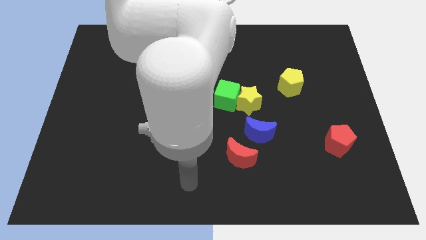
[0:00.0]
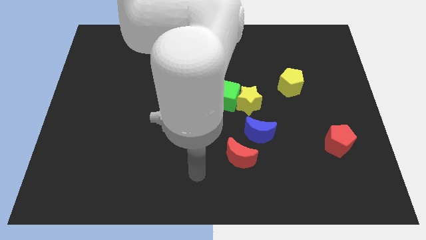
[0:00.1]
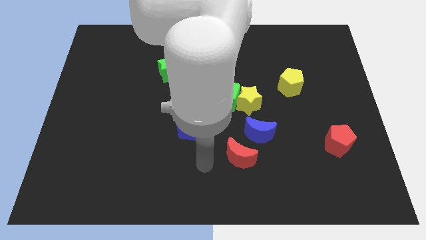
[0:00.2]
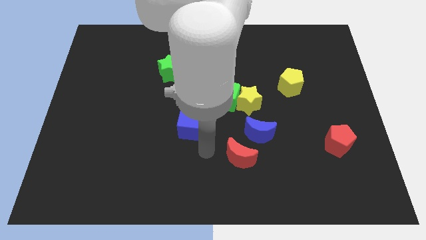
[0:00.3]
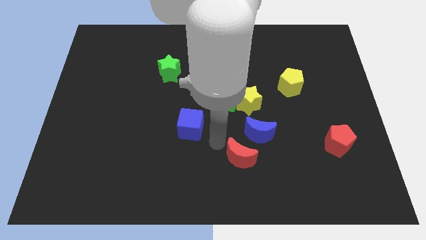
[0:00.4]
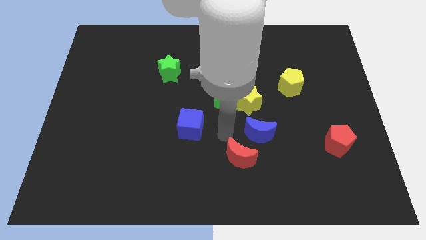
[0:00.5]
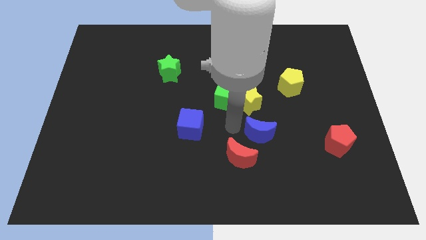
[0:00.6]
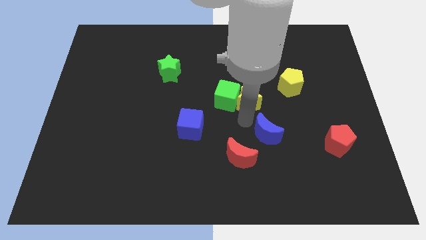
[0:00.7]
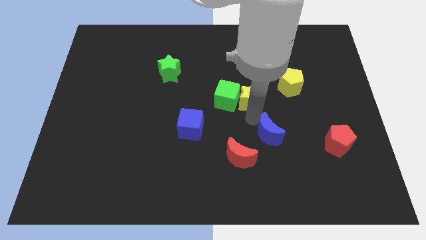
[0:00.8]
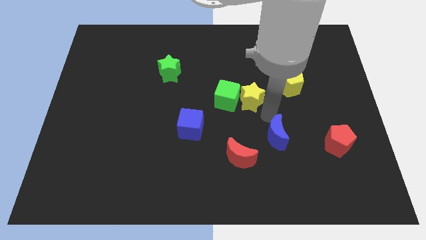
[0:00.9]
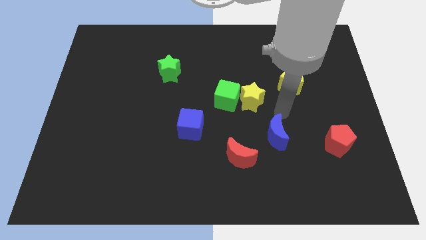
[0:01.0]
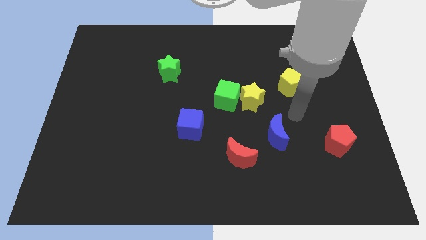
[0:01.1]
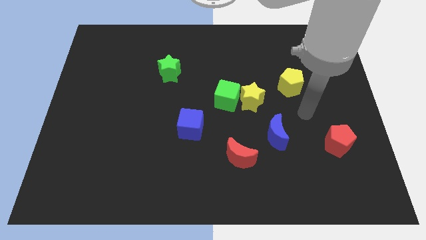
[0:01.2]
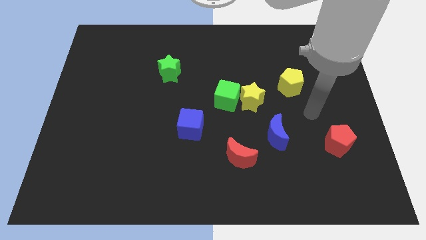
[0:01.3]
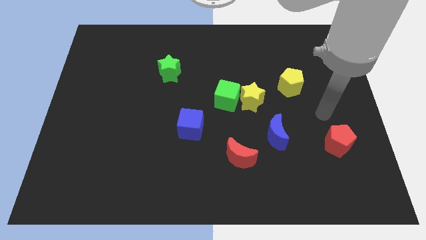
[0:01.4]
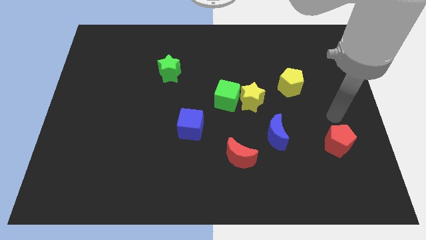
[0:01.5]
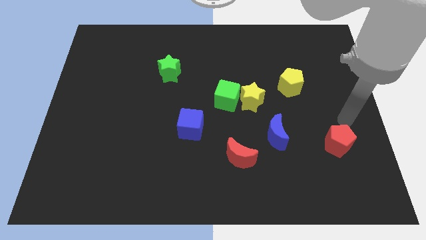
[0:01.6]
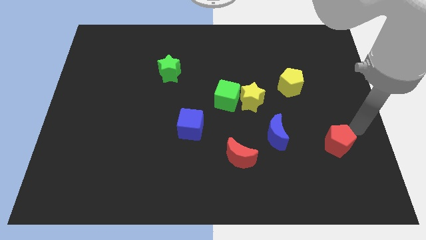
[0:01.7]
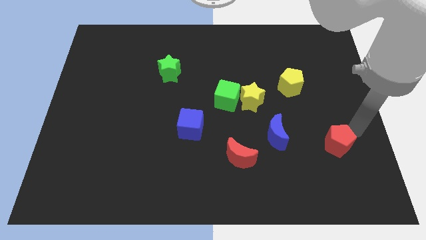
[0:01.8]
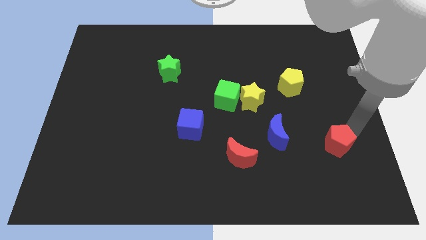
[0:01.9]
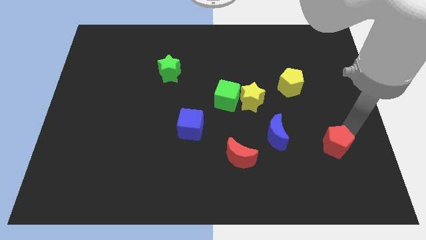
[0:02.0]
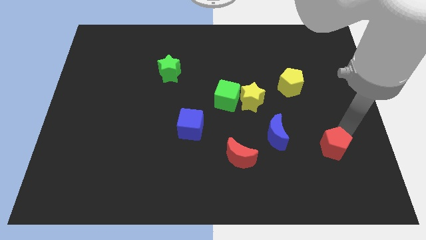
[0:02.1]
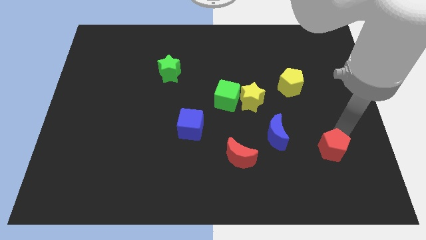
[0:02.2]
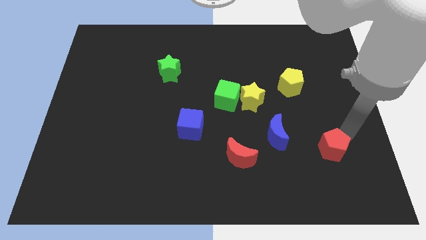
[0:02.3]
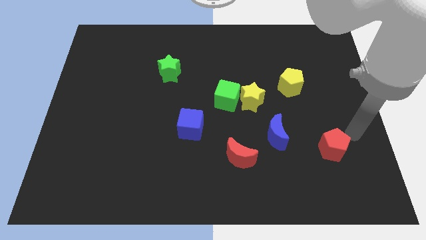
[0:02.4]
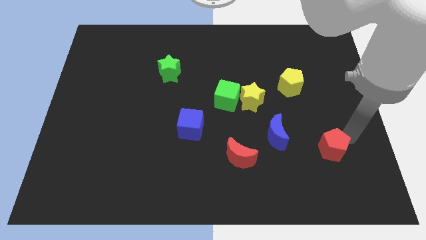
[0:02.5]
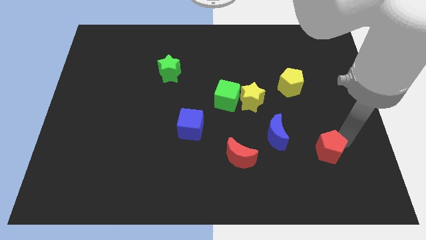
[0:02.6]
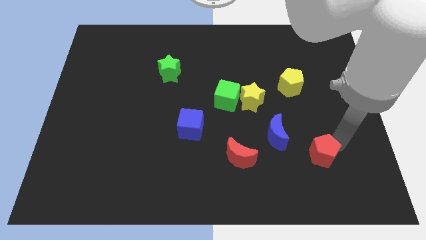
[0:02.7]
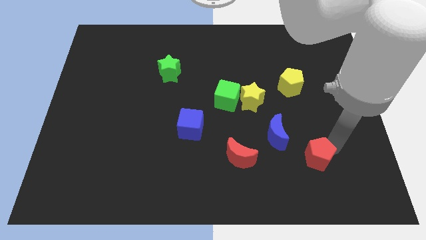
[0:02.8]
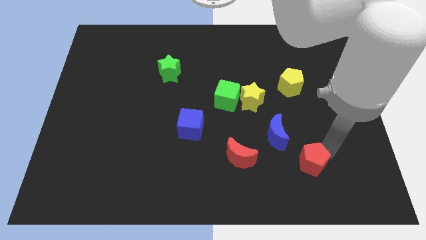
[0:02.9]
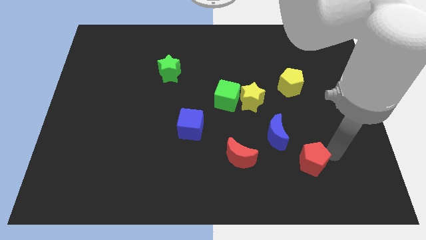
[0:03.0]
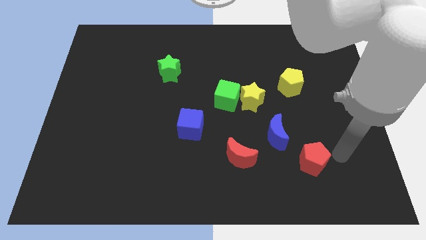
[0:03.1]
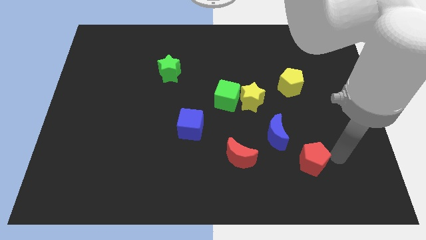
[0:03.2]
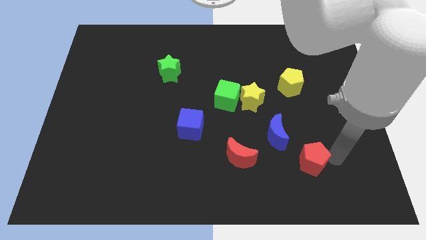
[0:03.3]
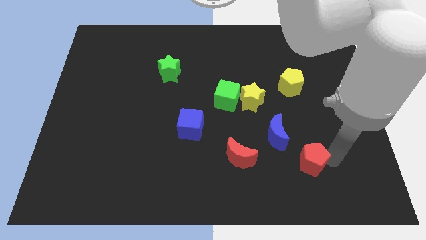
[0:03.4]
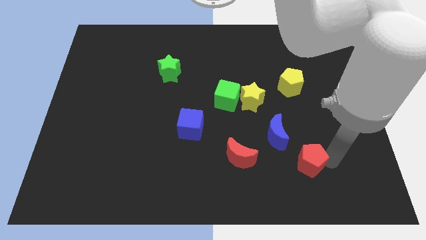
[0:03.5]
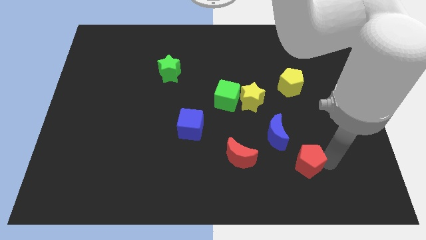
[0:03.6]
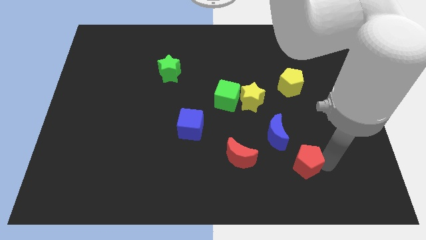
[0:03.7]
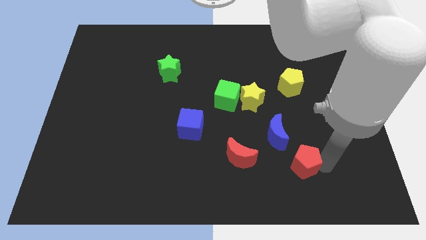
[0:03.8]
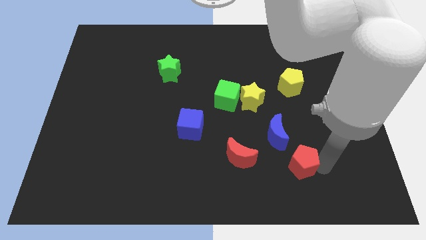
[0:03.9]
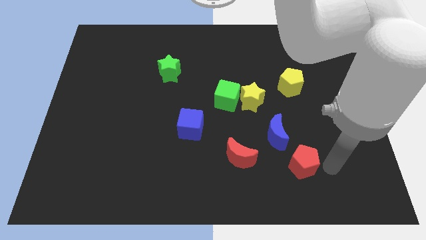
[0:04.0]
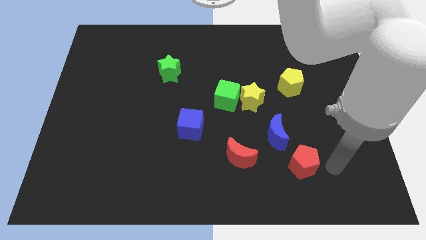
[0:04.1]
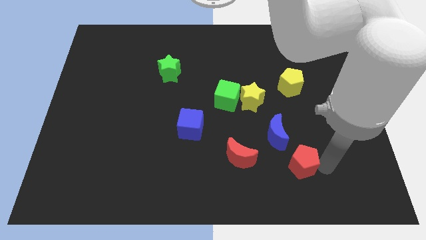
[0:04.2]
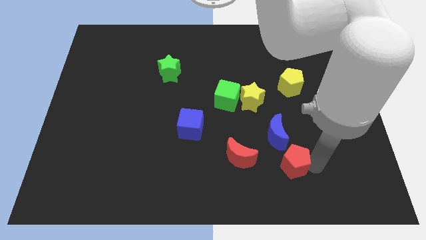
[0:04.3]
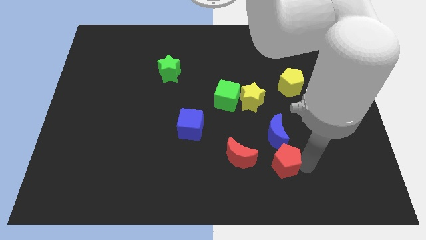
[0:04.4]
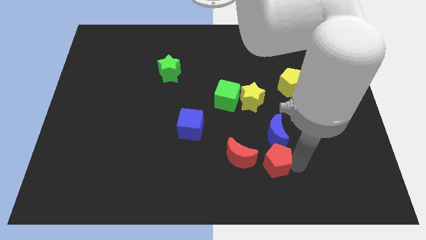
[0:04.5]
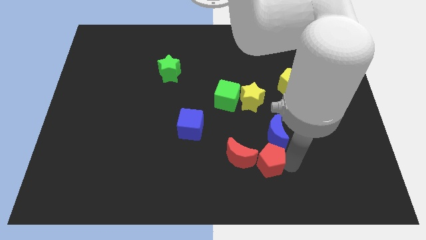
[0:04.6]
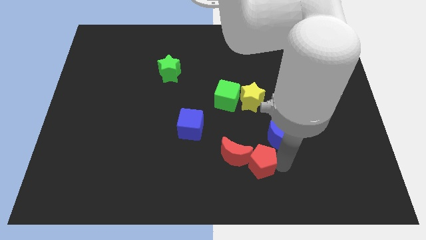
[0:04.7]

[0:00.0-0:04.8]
slide the red pentagon to the red moon

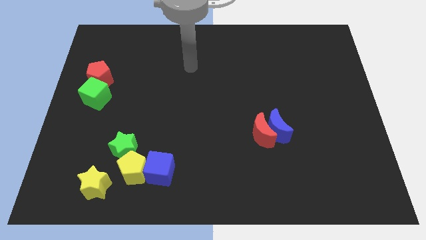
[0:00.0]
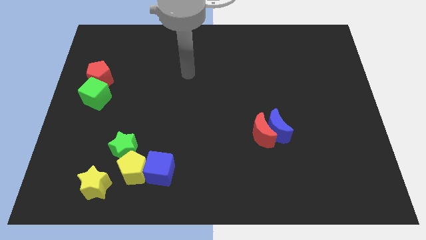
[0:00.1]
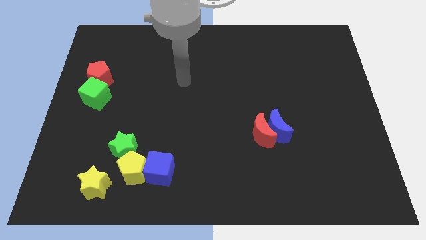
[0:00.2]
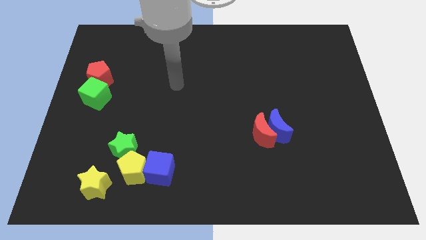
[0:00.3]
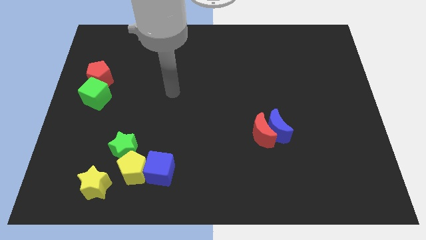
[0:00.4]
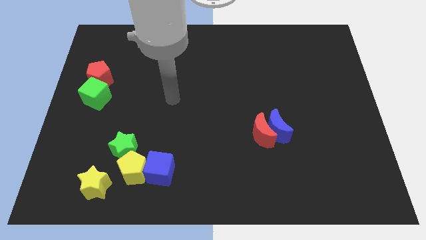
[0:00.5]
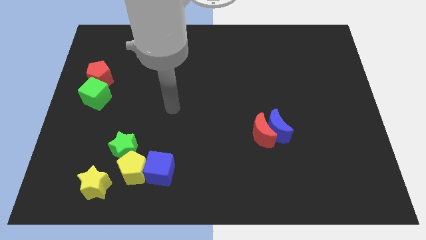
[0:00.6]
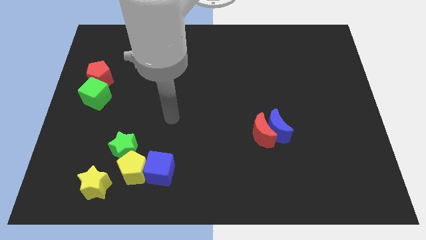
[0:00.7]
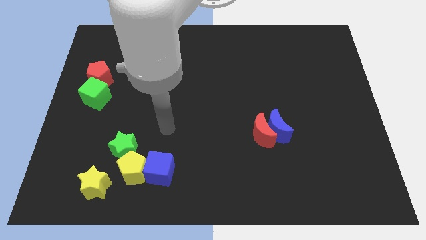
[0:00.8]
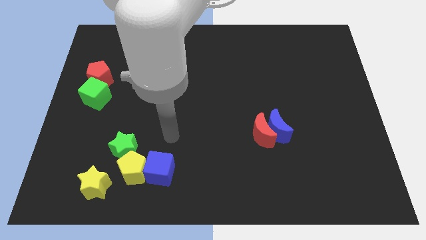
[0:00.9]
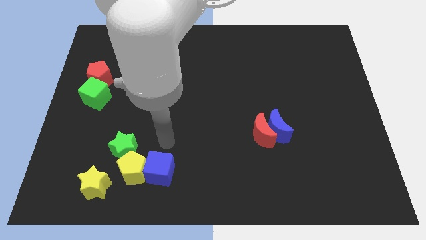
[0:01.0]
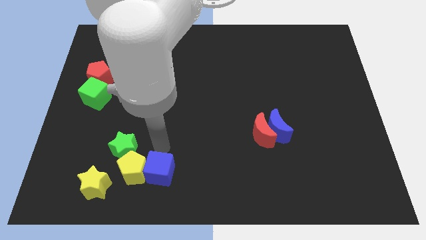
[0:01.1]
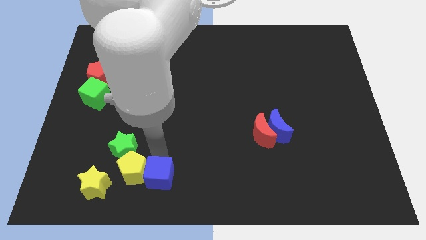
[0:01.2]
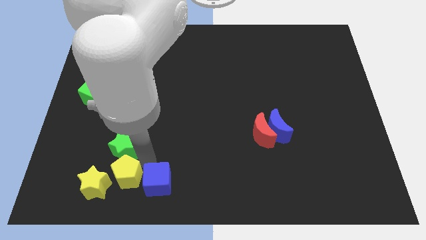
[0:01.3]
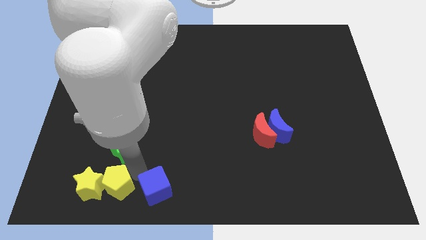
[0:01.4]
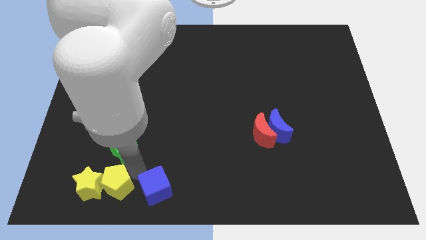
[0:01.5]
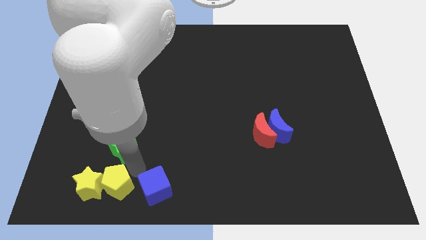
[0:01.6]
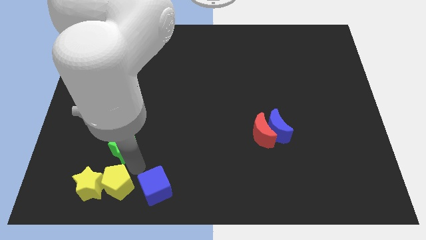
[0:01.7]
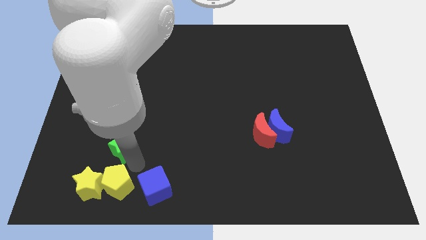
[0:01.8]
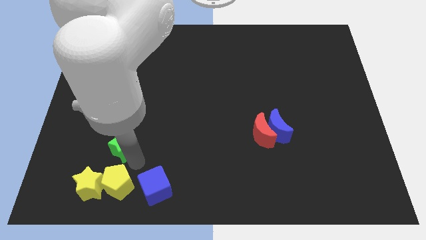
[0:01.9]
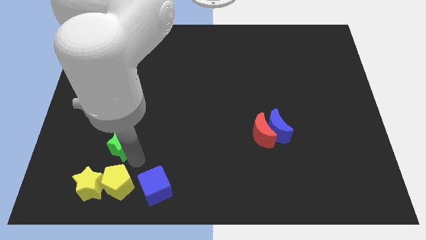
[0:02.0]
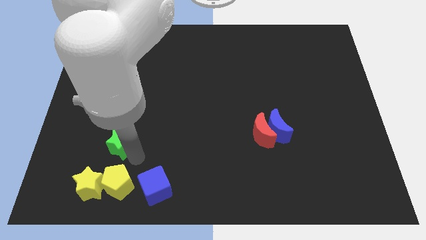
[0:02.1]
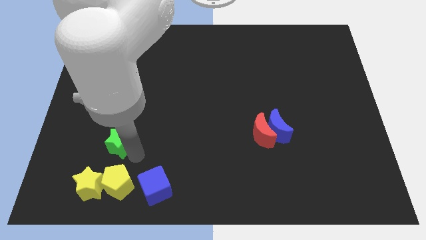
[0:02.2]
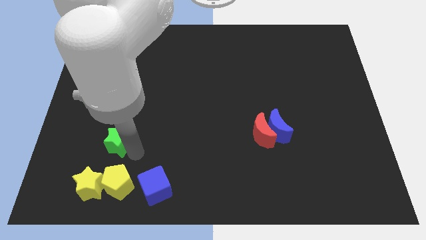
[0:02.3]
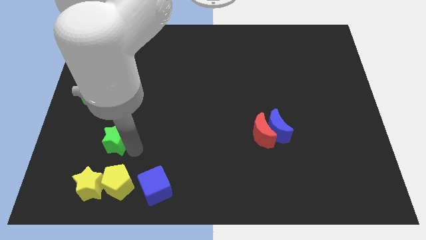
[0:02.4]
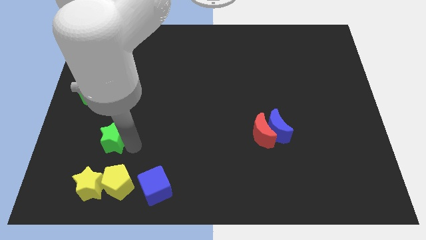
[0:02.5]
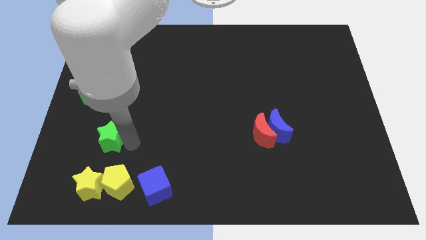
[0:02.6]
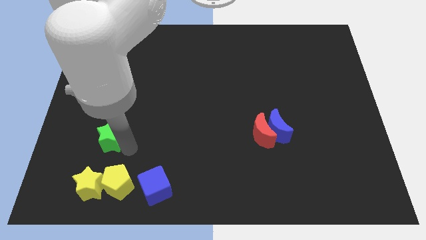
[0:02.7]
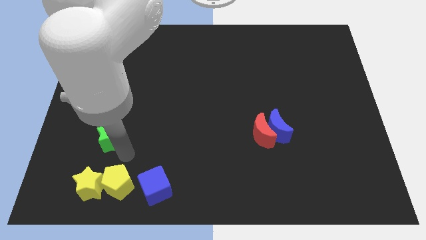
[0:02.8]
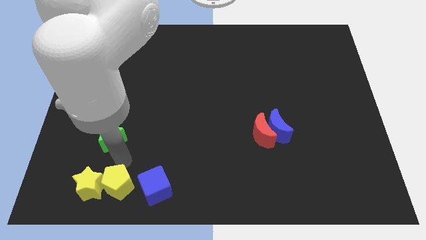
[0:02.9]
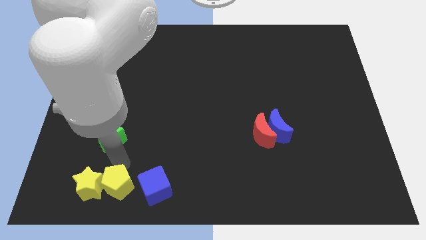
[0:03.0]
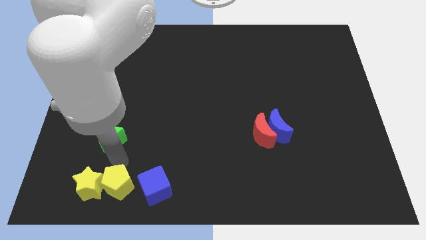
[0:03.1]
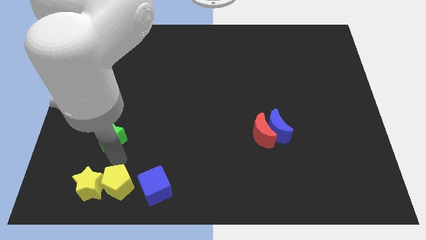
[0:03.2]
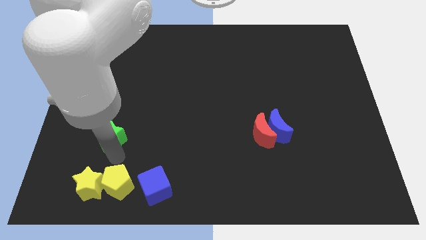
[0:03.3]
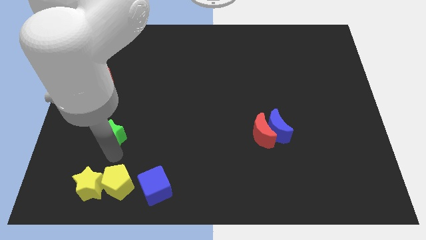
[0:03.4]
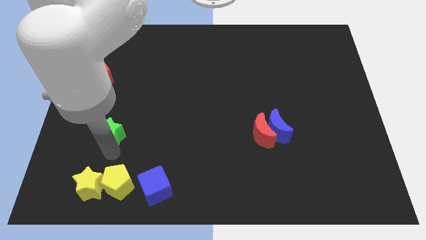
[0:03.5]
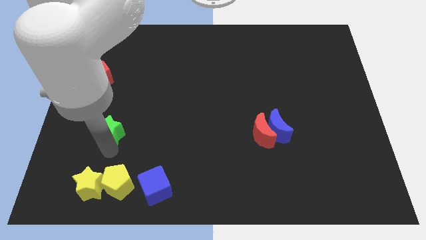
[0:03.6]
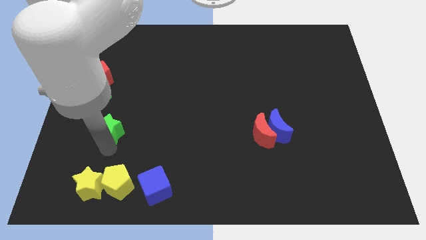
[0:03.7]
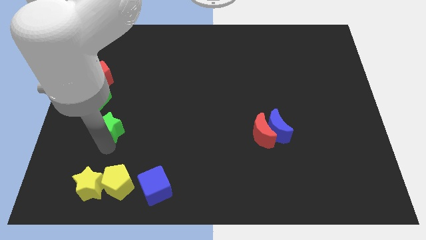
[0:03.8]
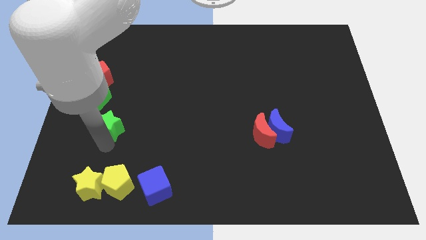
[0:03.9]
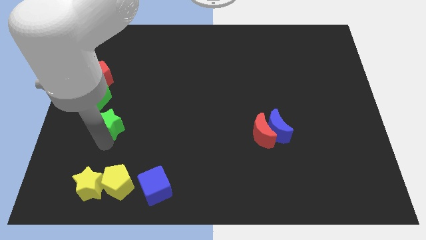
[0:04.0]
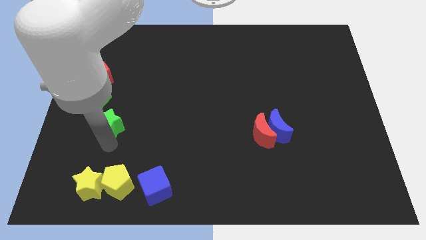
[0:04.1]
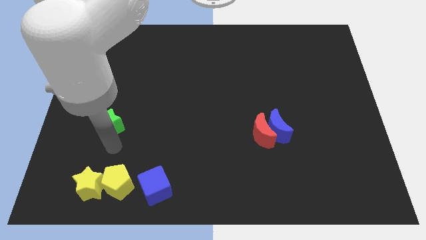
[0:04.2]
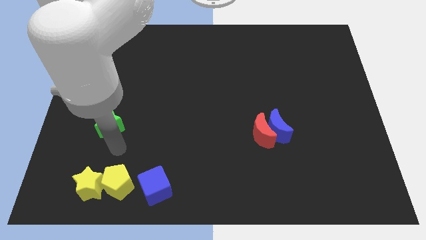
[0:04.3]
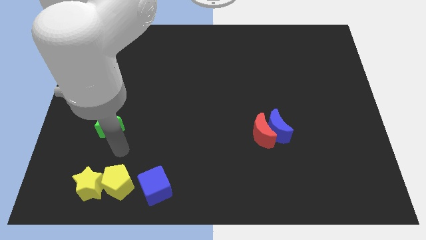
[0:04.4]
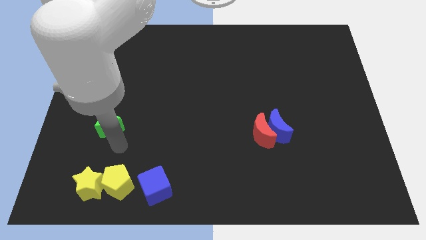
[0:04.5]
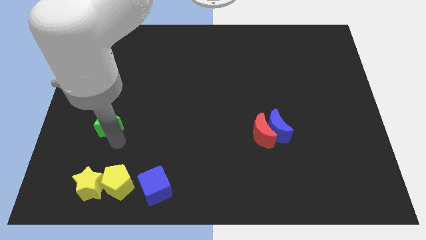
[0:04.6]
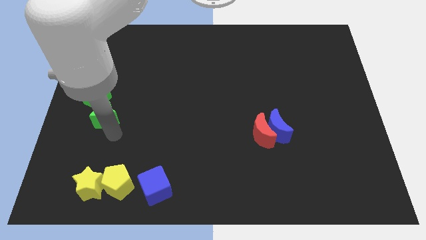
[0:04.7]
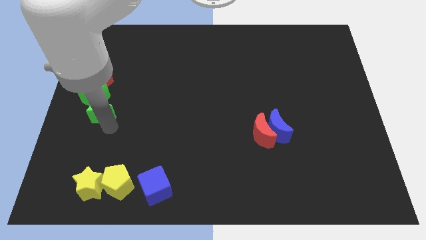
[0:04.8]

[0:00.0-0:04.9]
put the green star to the green cube
